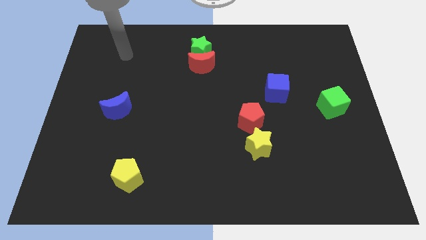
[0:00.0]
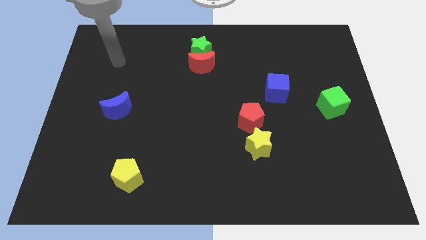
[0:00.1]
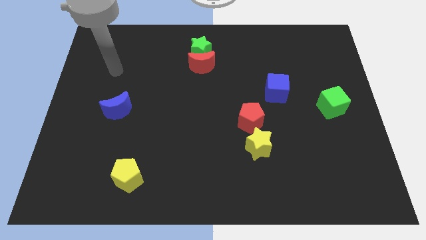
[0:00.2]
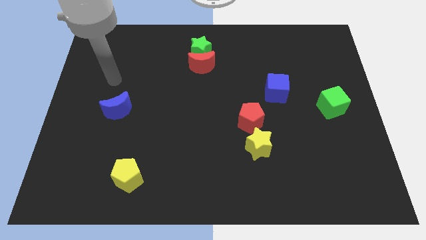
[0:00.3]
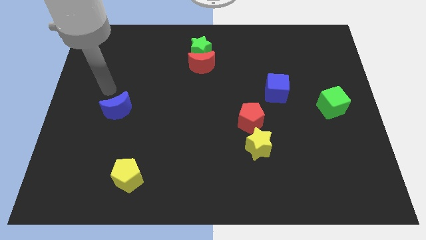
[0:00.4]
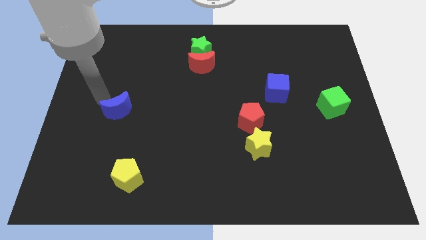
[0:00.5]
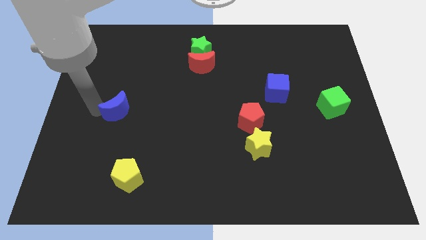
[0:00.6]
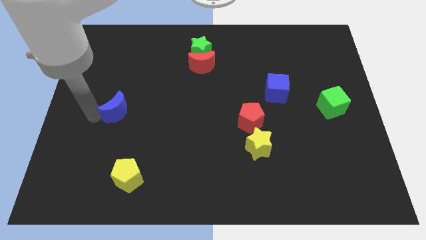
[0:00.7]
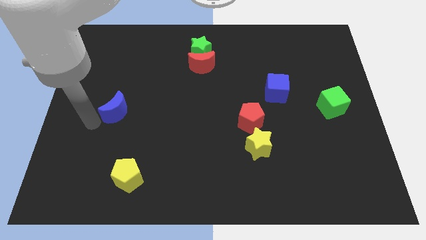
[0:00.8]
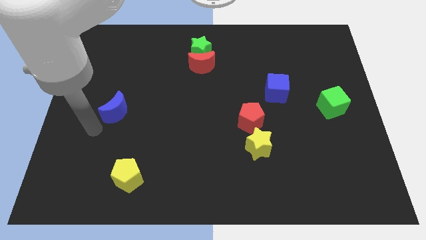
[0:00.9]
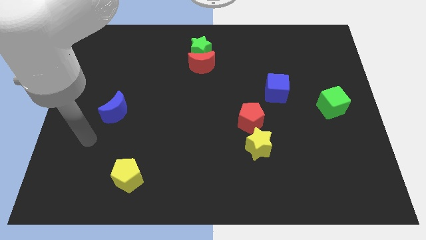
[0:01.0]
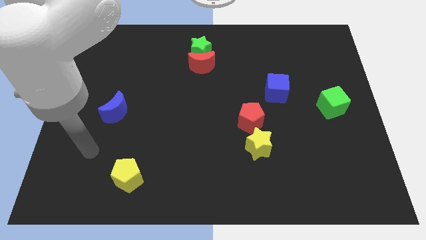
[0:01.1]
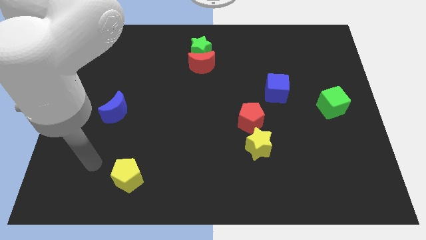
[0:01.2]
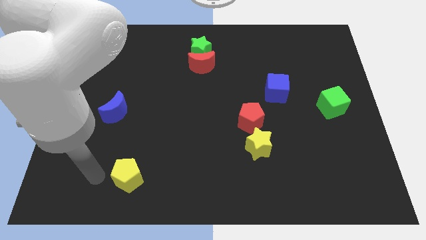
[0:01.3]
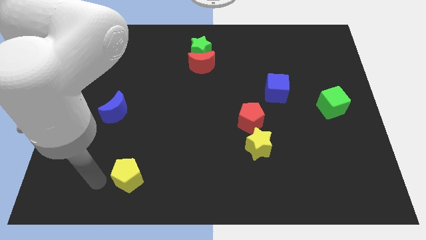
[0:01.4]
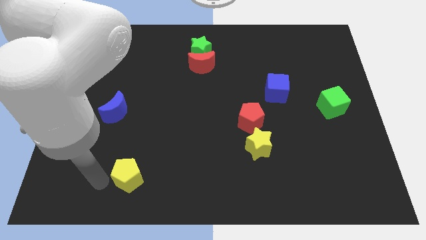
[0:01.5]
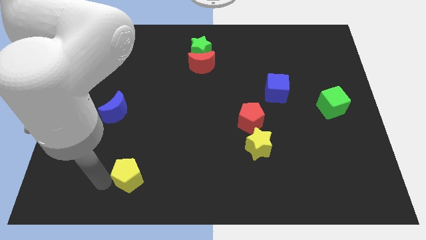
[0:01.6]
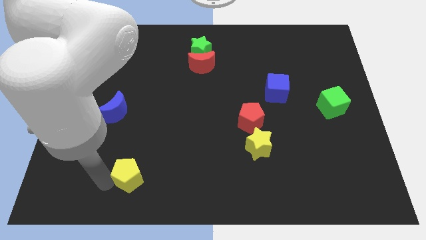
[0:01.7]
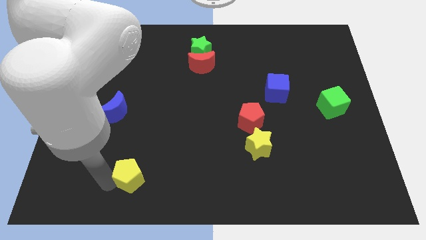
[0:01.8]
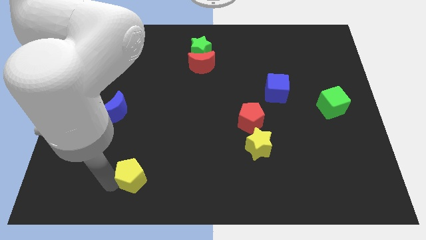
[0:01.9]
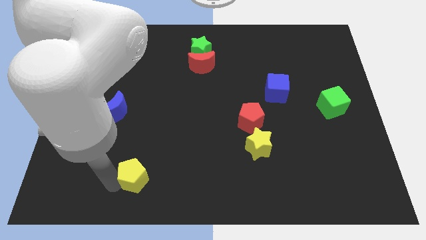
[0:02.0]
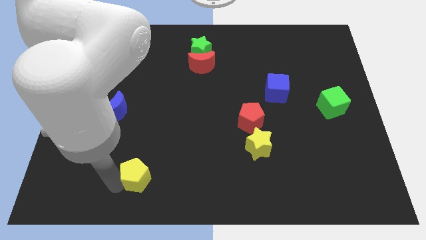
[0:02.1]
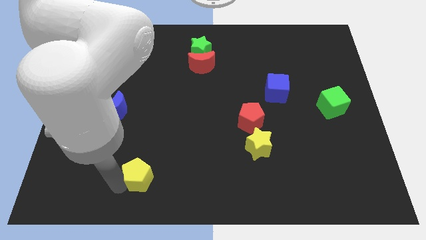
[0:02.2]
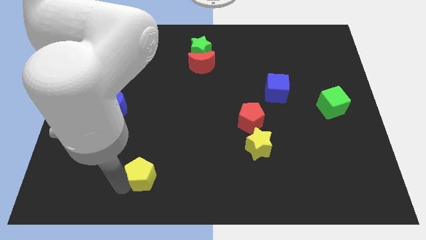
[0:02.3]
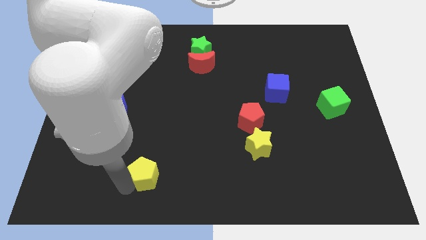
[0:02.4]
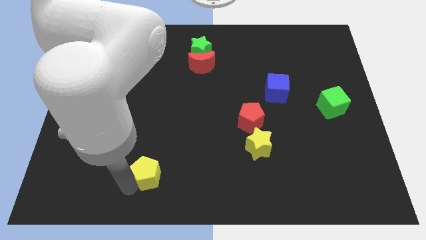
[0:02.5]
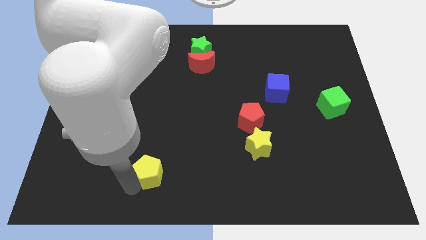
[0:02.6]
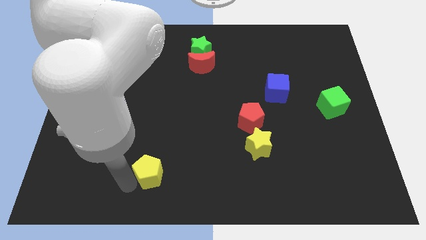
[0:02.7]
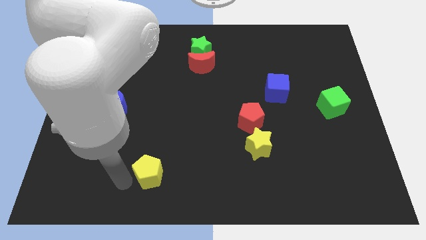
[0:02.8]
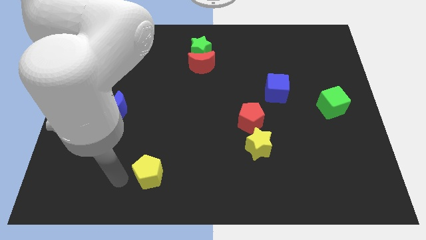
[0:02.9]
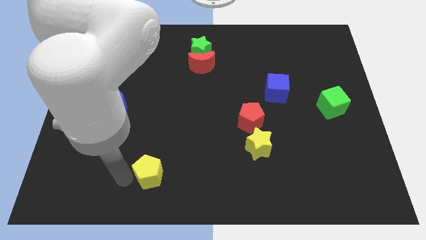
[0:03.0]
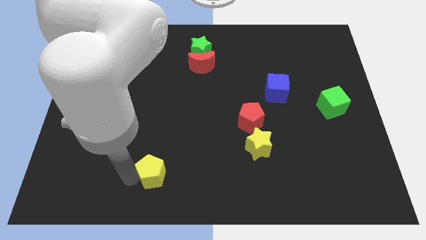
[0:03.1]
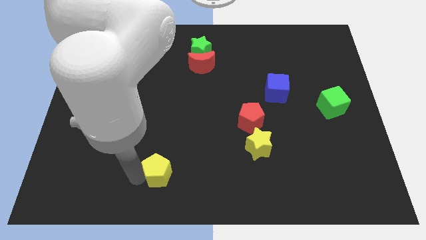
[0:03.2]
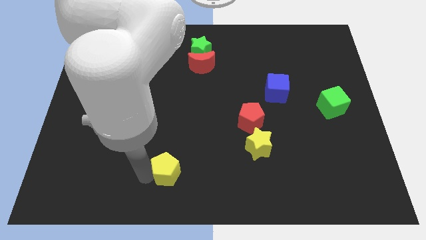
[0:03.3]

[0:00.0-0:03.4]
slightly move the yellow pentagon right

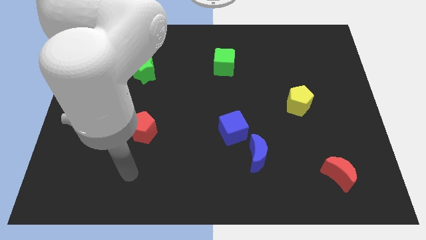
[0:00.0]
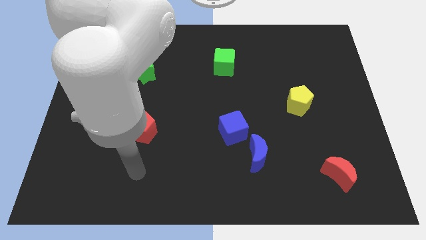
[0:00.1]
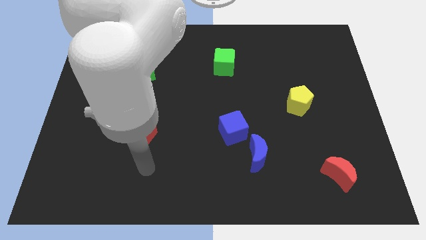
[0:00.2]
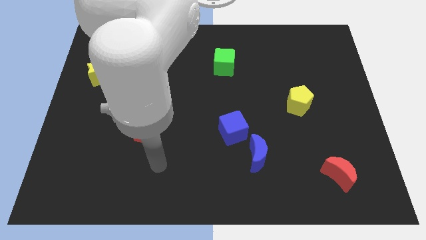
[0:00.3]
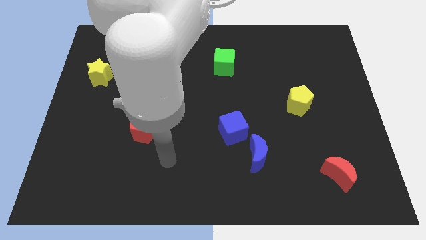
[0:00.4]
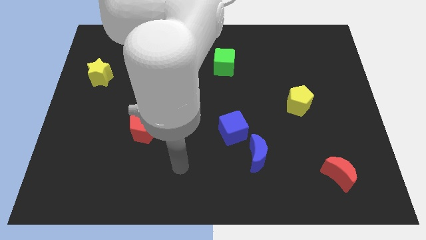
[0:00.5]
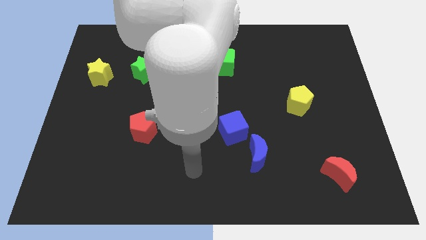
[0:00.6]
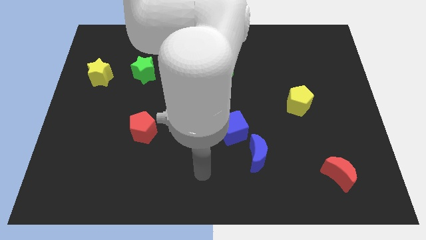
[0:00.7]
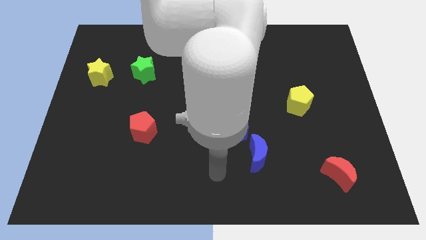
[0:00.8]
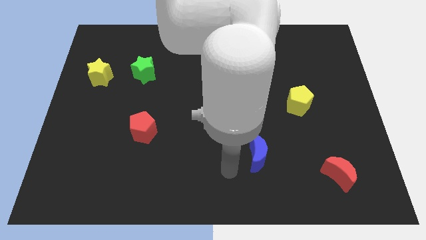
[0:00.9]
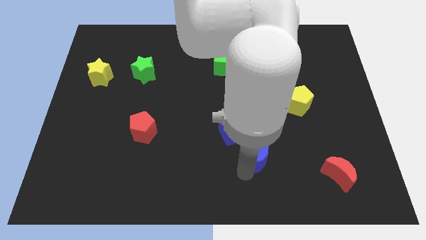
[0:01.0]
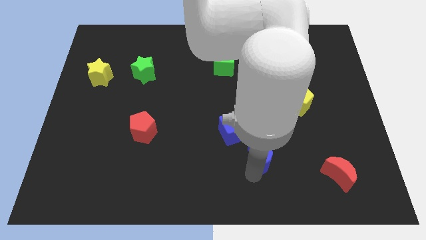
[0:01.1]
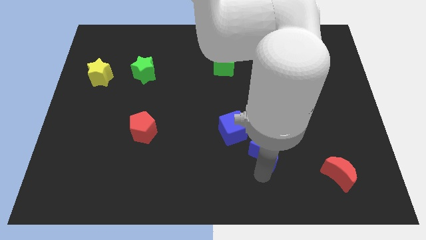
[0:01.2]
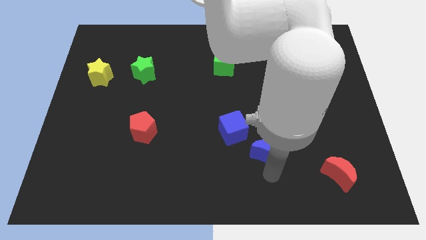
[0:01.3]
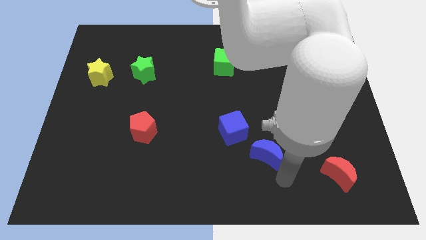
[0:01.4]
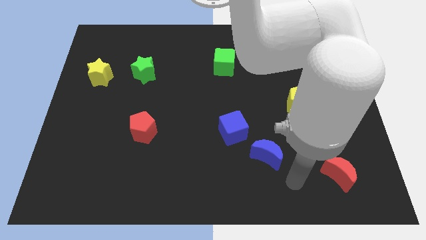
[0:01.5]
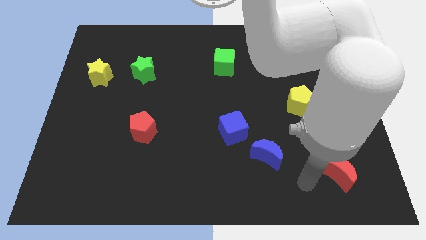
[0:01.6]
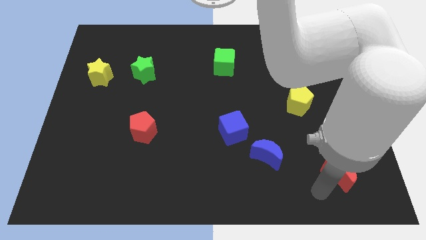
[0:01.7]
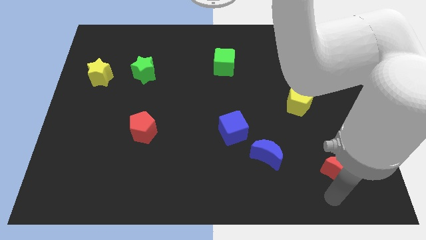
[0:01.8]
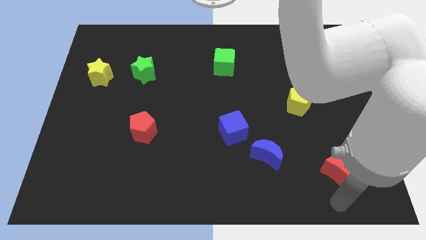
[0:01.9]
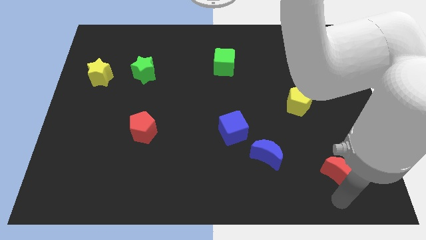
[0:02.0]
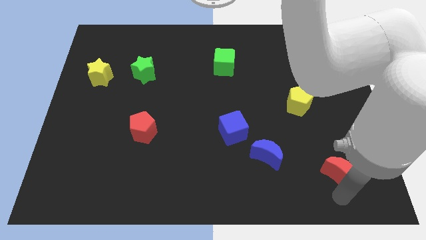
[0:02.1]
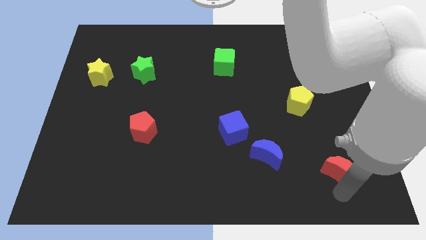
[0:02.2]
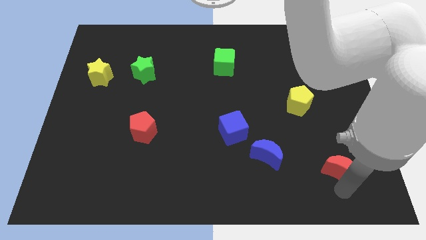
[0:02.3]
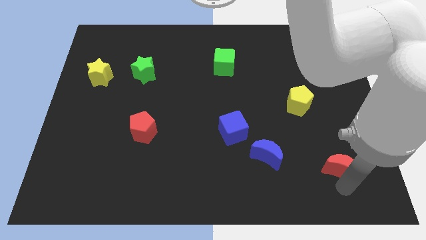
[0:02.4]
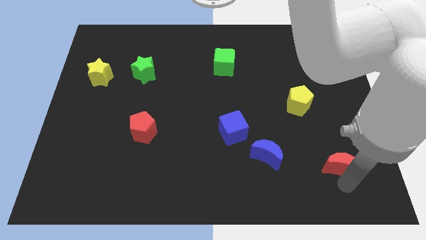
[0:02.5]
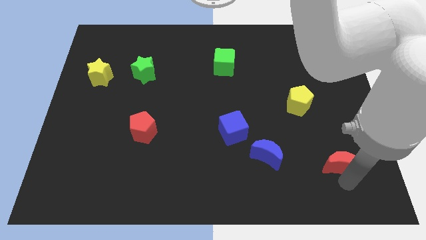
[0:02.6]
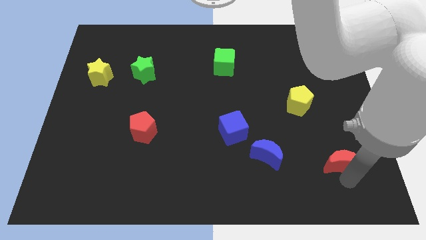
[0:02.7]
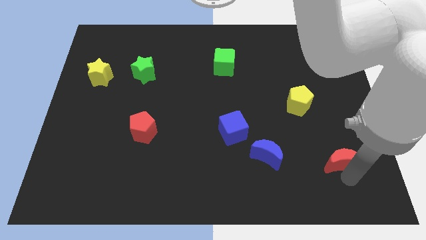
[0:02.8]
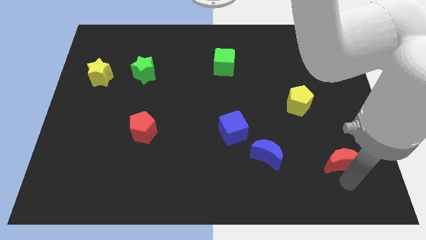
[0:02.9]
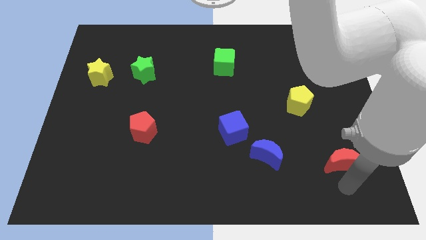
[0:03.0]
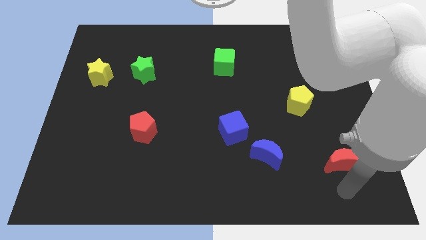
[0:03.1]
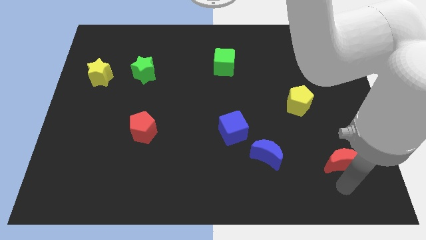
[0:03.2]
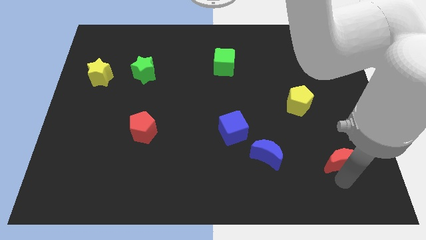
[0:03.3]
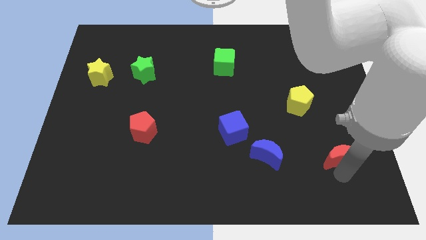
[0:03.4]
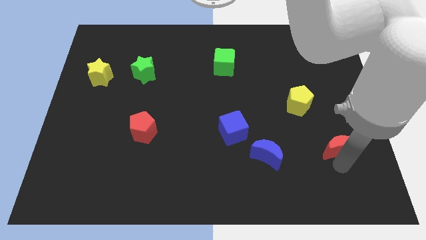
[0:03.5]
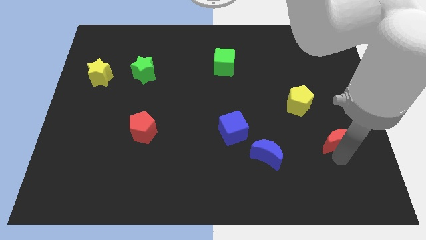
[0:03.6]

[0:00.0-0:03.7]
slightly push the red moon up

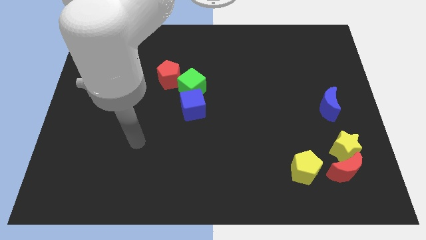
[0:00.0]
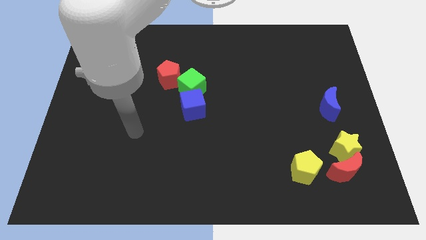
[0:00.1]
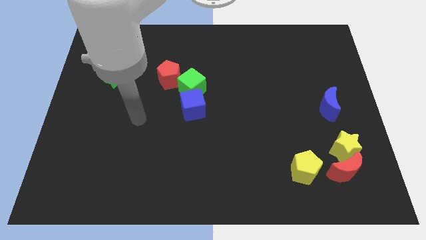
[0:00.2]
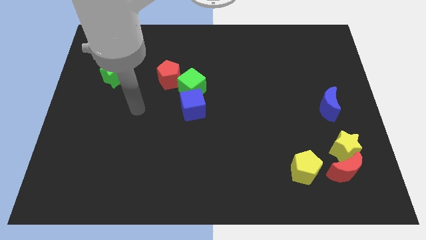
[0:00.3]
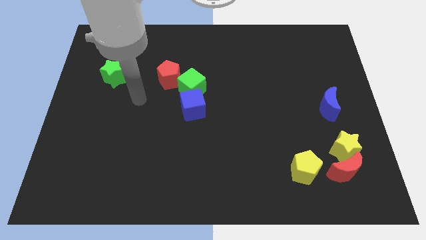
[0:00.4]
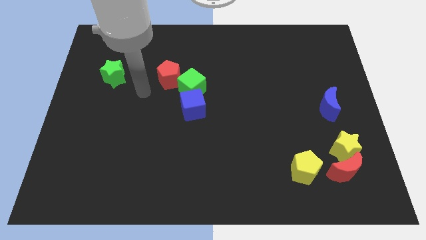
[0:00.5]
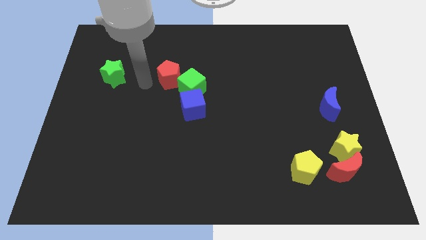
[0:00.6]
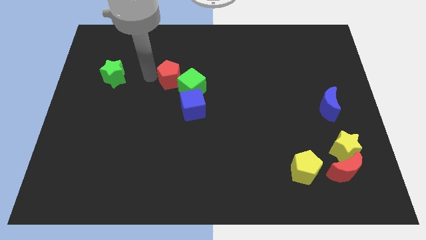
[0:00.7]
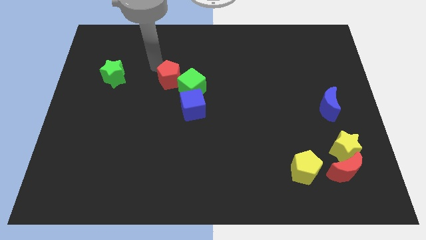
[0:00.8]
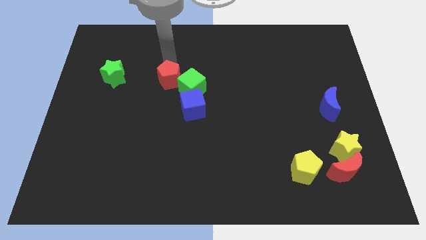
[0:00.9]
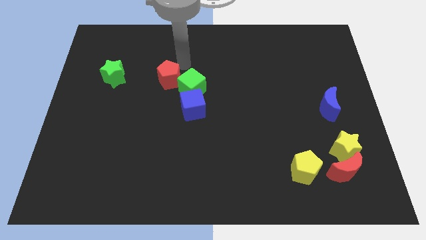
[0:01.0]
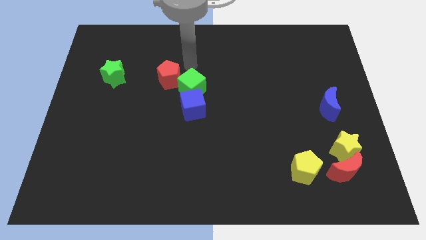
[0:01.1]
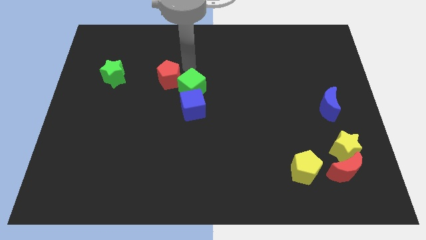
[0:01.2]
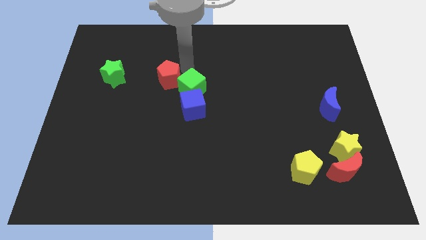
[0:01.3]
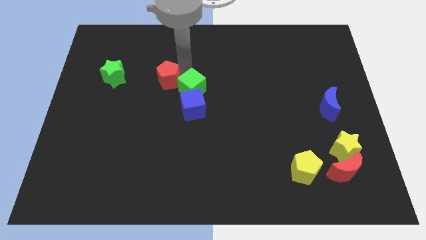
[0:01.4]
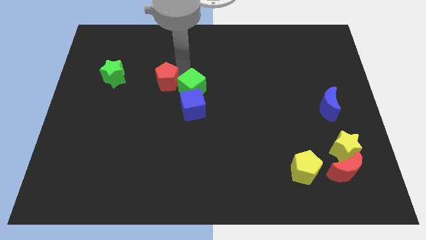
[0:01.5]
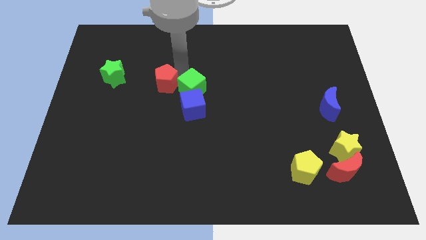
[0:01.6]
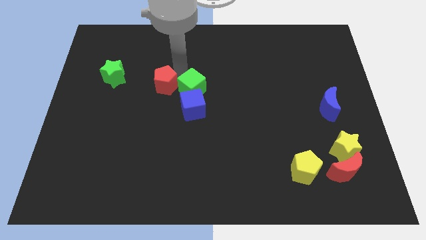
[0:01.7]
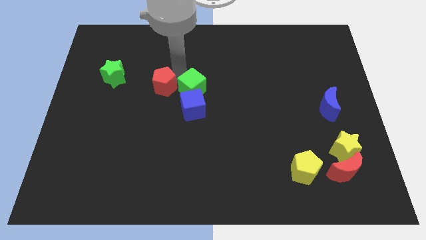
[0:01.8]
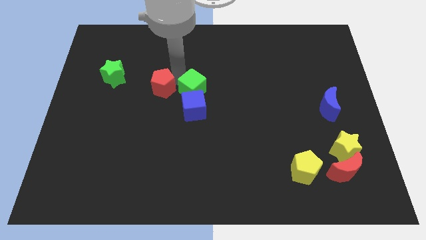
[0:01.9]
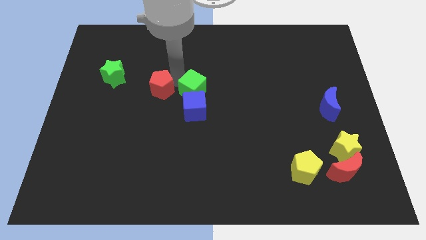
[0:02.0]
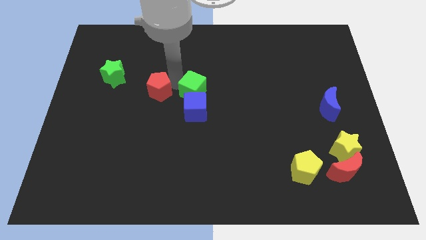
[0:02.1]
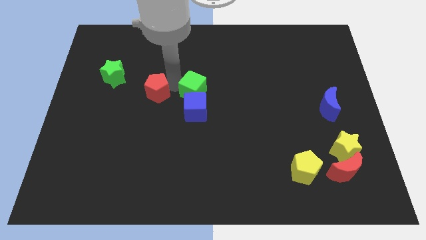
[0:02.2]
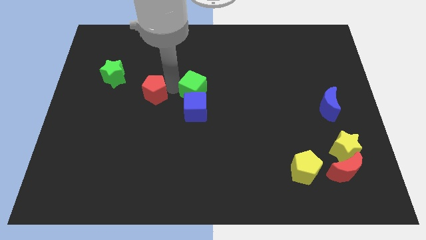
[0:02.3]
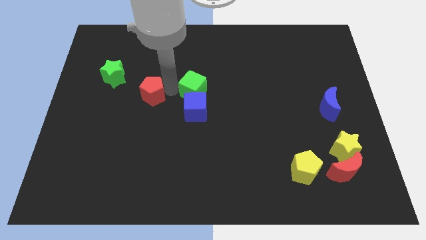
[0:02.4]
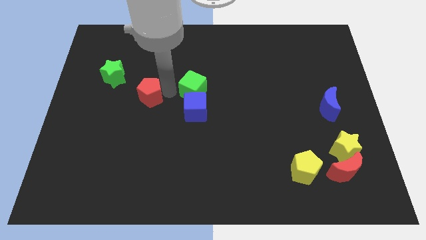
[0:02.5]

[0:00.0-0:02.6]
slightly move the red pentagon down and then to the left
